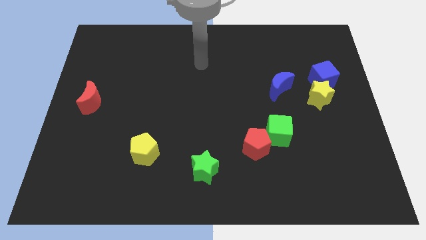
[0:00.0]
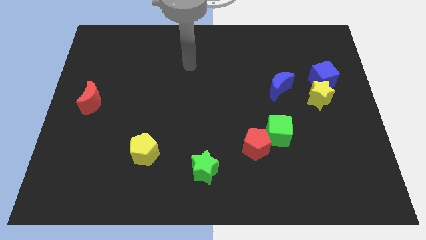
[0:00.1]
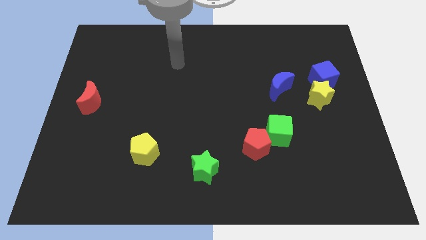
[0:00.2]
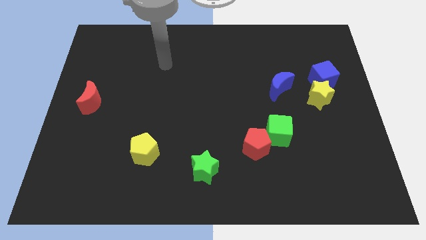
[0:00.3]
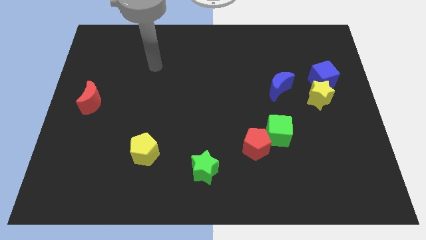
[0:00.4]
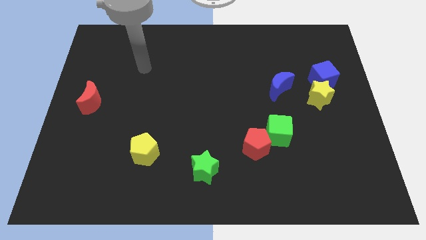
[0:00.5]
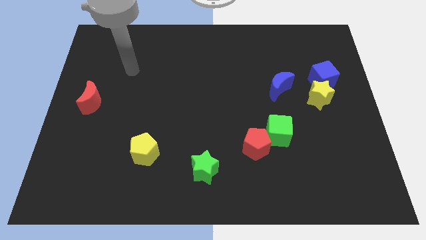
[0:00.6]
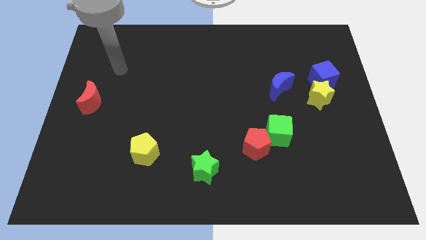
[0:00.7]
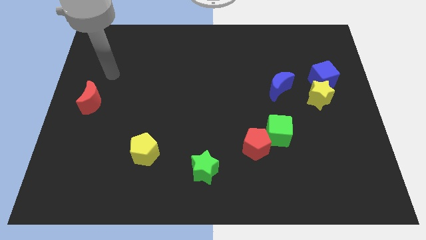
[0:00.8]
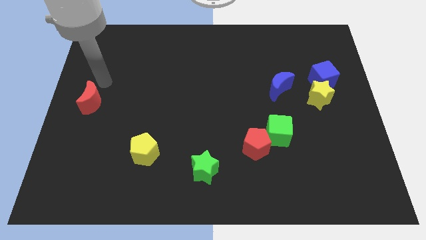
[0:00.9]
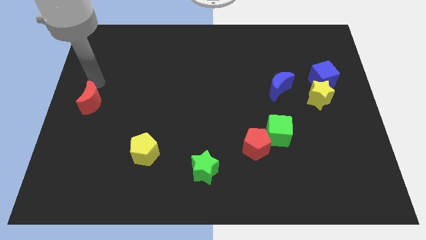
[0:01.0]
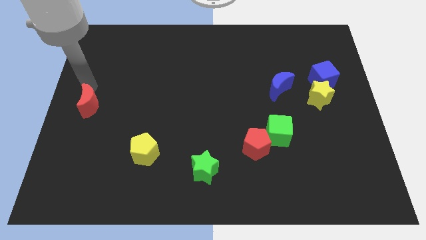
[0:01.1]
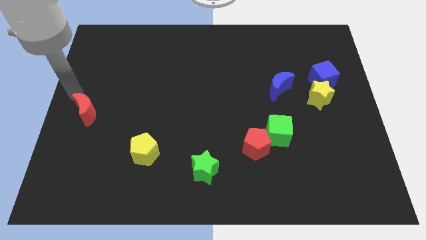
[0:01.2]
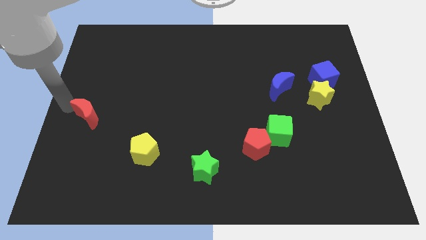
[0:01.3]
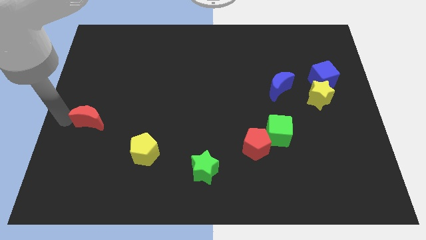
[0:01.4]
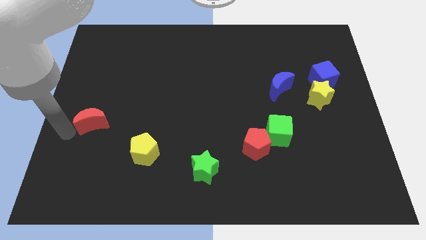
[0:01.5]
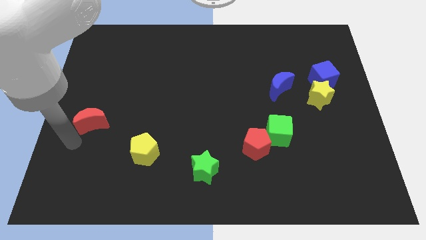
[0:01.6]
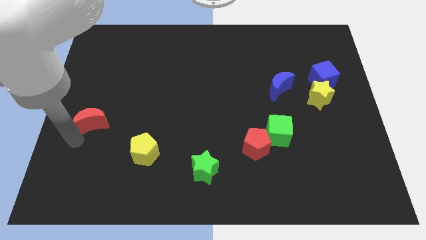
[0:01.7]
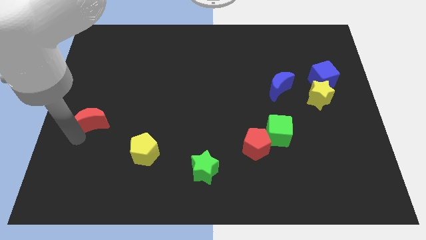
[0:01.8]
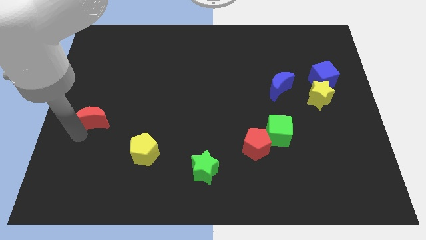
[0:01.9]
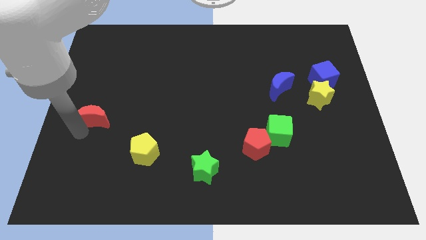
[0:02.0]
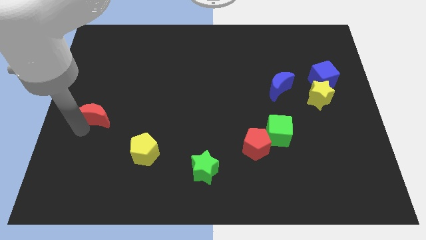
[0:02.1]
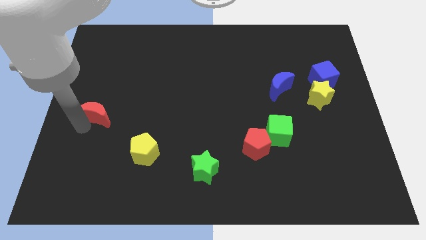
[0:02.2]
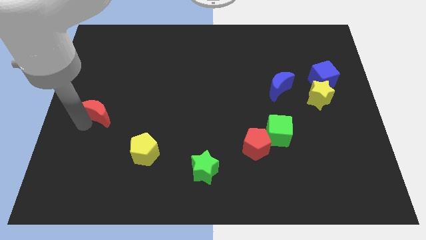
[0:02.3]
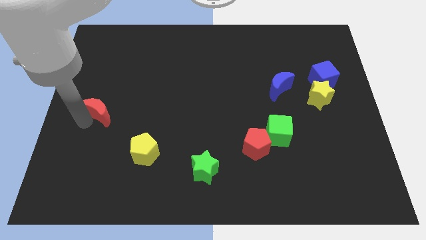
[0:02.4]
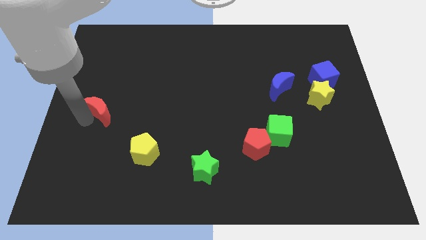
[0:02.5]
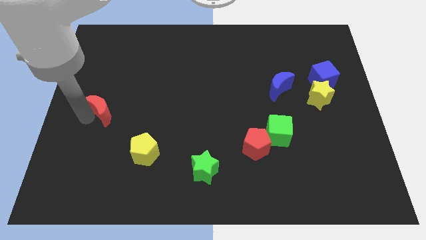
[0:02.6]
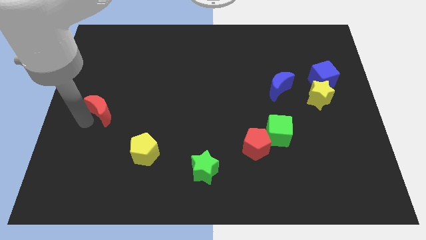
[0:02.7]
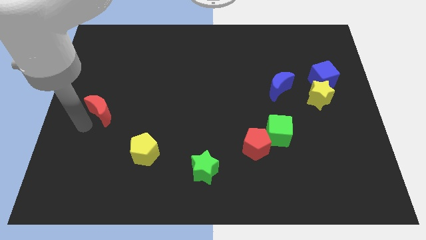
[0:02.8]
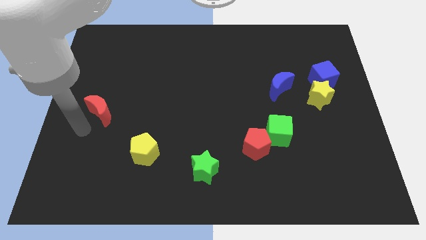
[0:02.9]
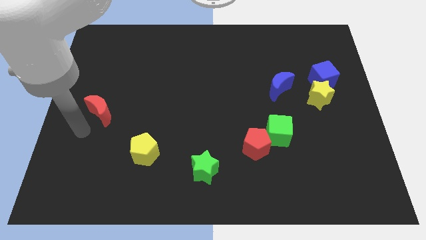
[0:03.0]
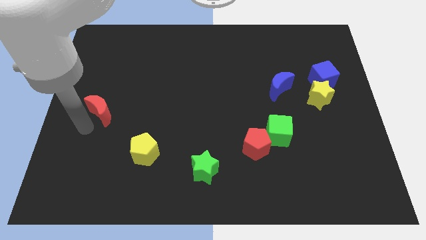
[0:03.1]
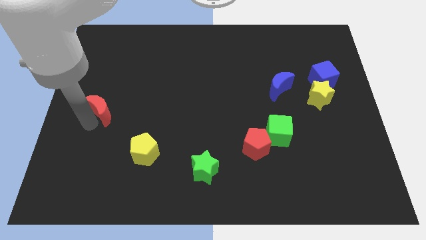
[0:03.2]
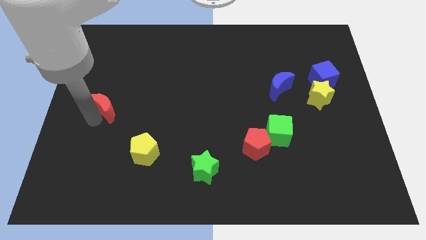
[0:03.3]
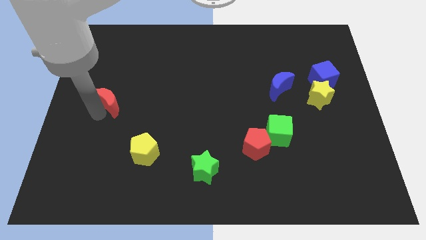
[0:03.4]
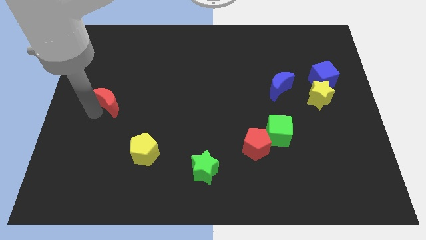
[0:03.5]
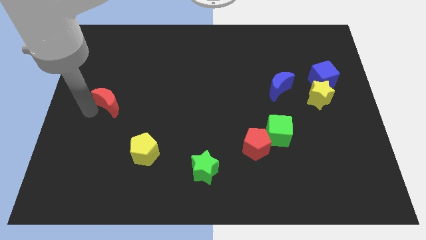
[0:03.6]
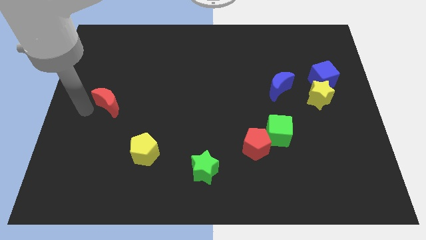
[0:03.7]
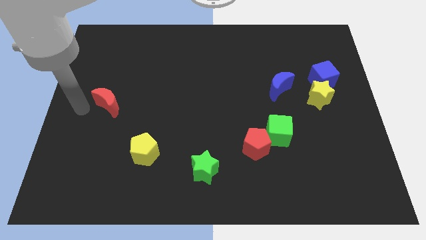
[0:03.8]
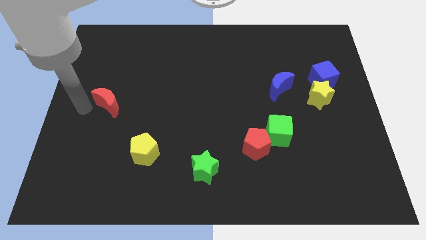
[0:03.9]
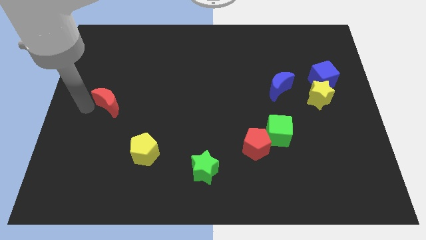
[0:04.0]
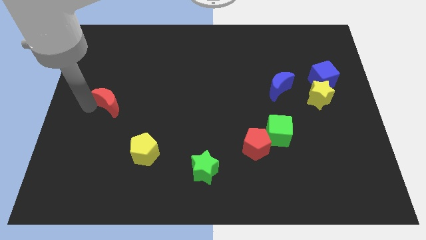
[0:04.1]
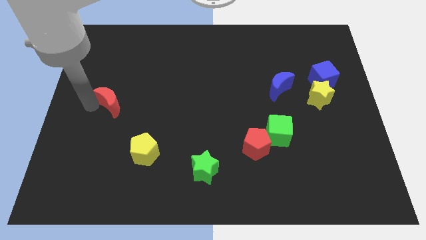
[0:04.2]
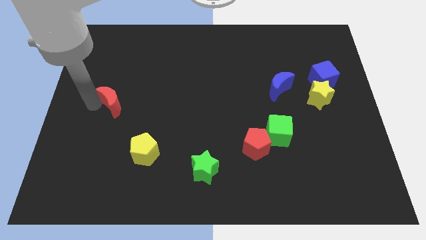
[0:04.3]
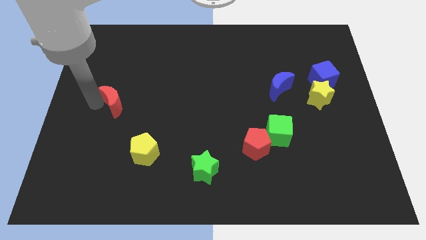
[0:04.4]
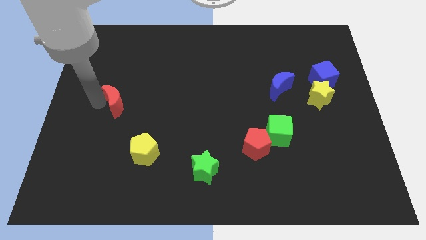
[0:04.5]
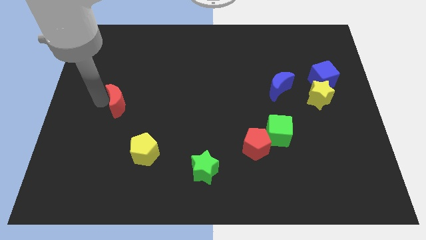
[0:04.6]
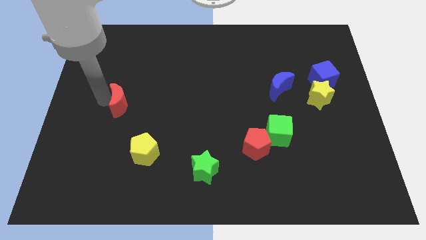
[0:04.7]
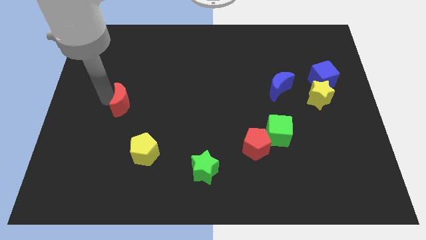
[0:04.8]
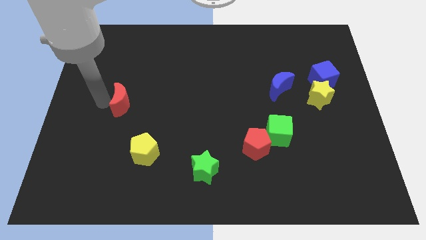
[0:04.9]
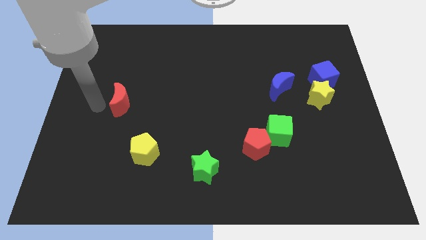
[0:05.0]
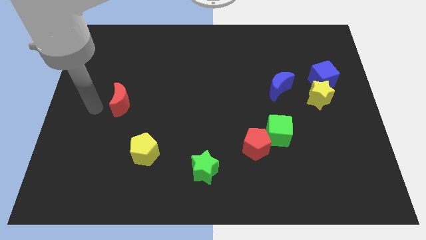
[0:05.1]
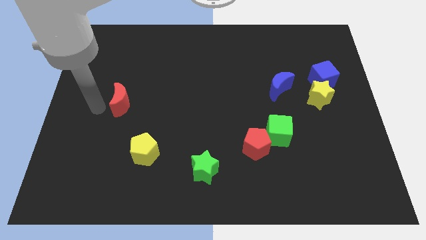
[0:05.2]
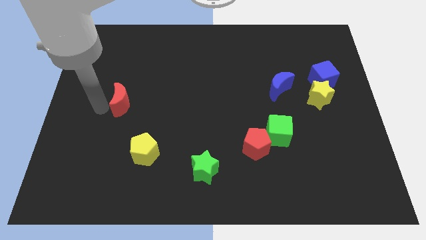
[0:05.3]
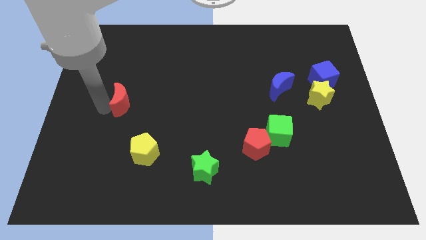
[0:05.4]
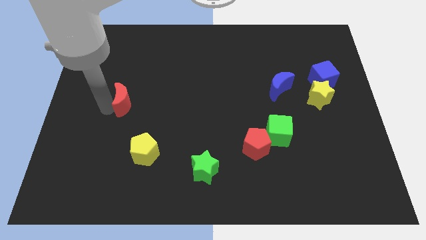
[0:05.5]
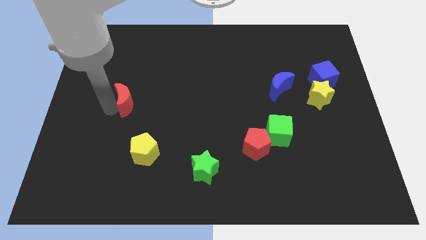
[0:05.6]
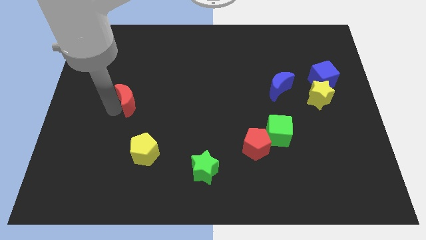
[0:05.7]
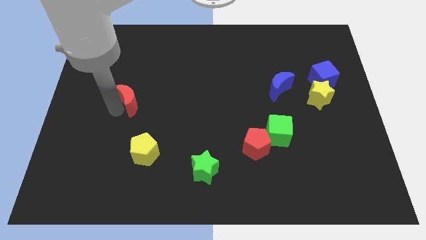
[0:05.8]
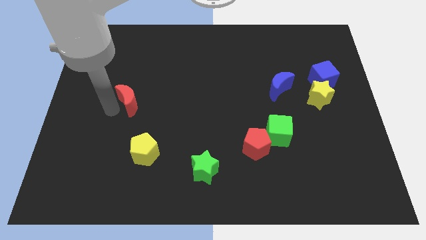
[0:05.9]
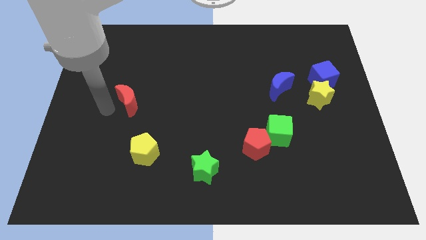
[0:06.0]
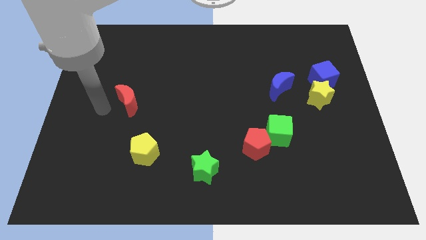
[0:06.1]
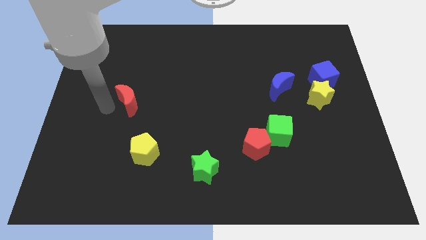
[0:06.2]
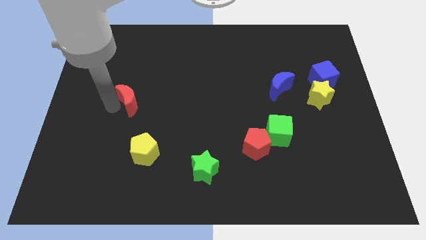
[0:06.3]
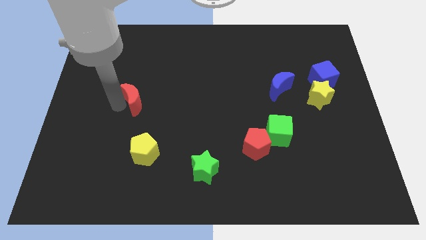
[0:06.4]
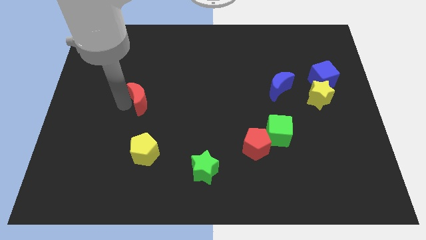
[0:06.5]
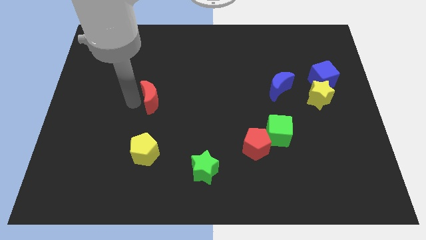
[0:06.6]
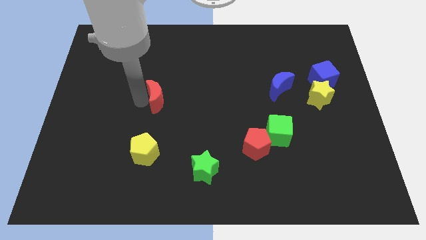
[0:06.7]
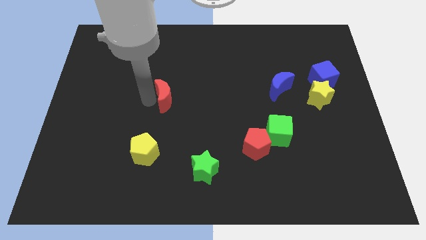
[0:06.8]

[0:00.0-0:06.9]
slide the red moon to the middle
